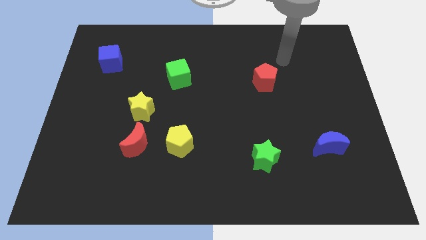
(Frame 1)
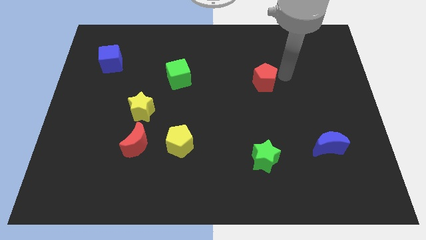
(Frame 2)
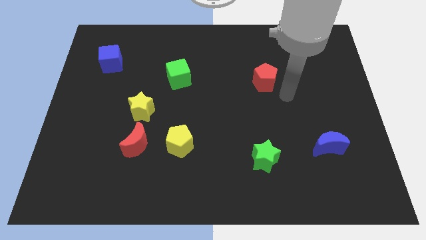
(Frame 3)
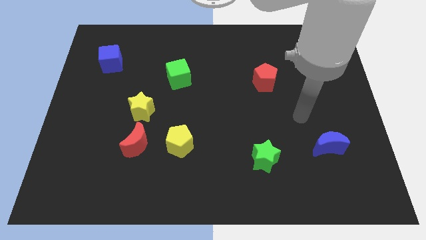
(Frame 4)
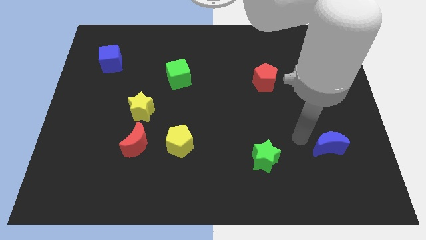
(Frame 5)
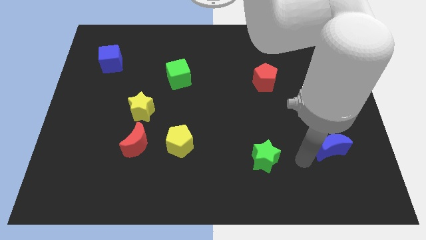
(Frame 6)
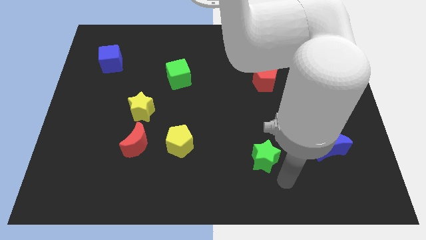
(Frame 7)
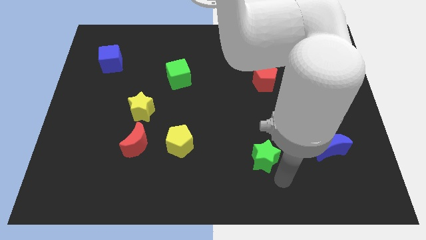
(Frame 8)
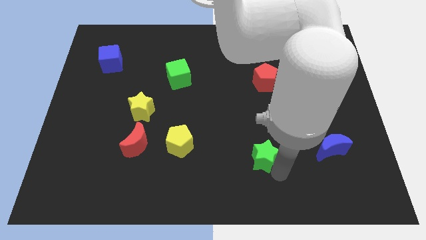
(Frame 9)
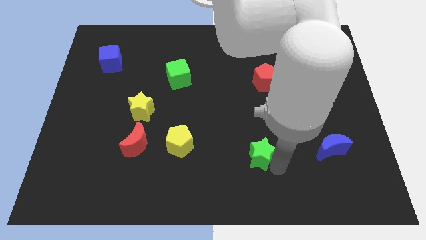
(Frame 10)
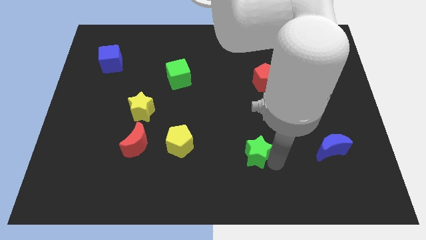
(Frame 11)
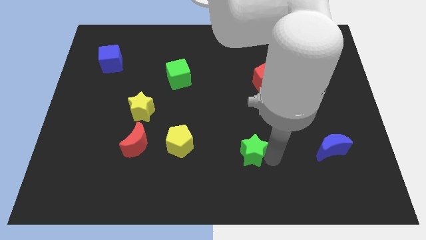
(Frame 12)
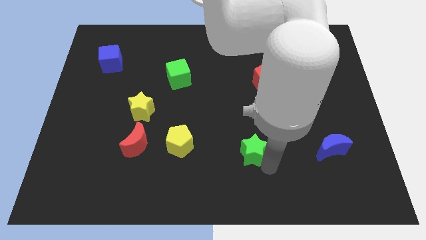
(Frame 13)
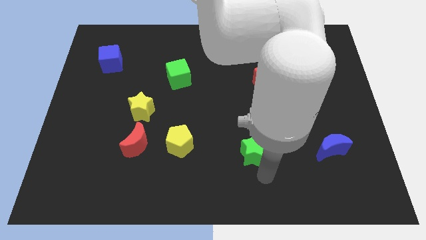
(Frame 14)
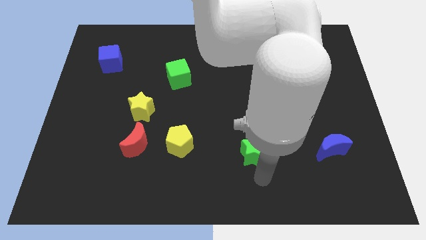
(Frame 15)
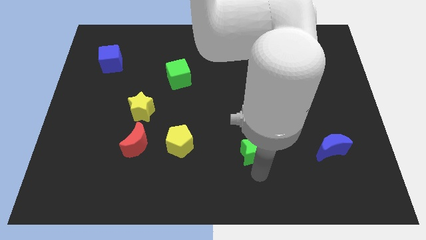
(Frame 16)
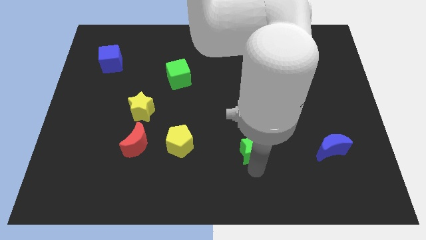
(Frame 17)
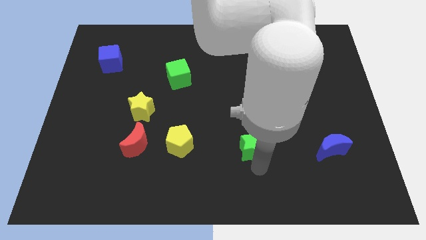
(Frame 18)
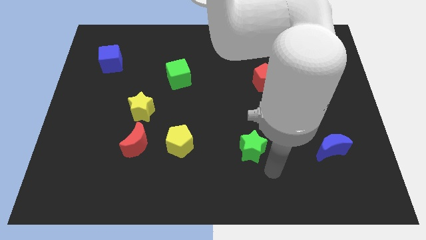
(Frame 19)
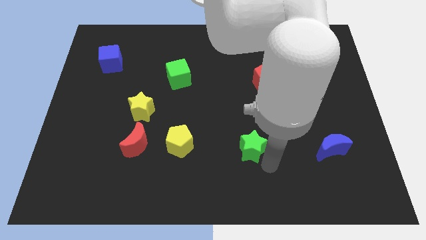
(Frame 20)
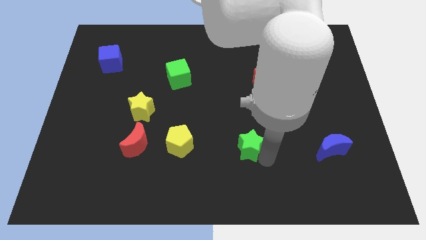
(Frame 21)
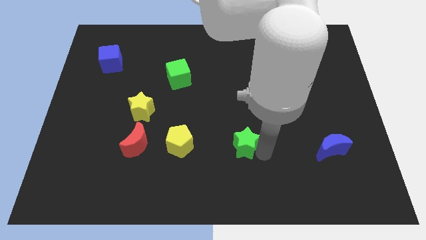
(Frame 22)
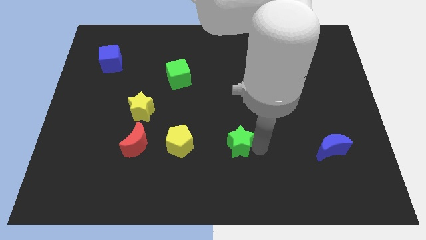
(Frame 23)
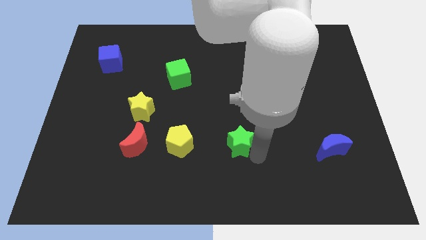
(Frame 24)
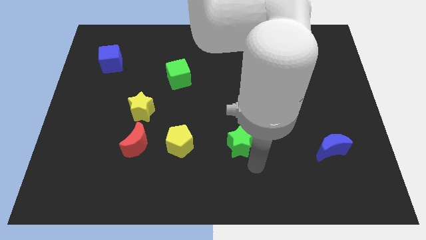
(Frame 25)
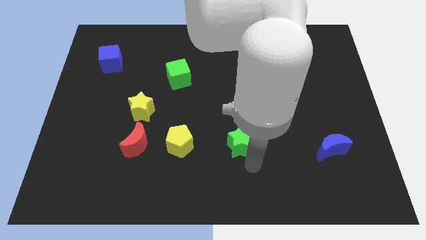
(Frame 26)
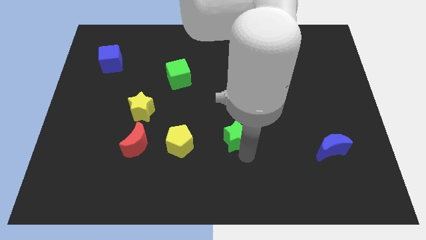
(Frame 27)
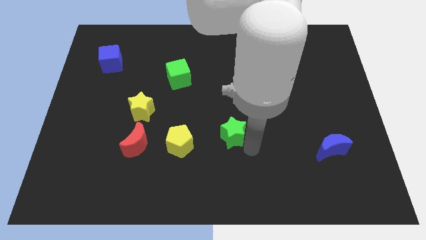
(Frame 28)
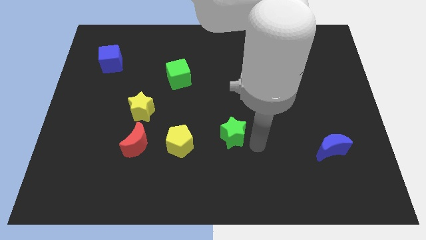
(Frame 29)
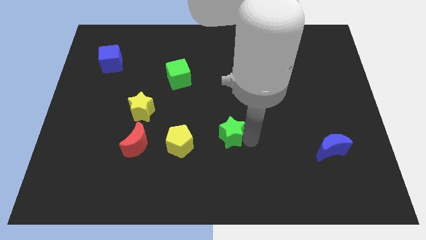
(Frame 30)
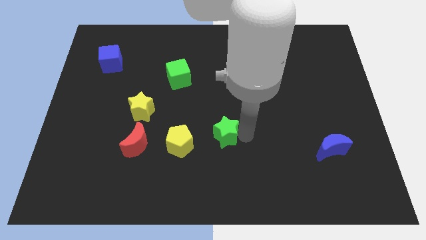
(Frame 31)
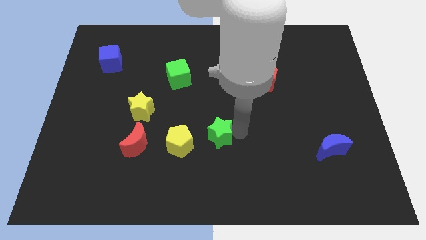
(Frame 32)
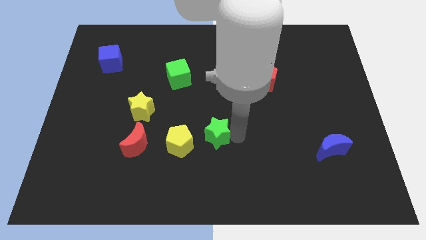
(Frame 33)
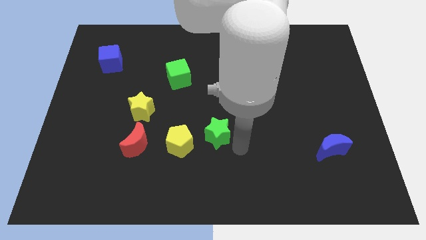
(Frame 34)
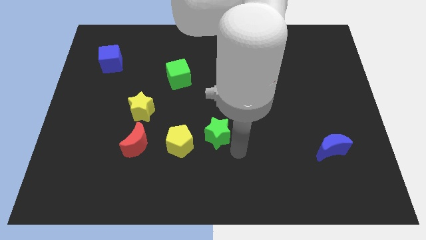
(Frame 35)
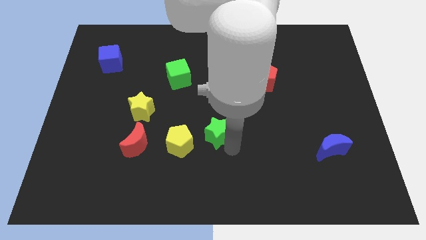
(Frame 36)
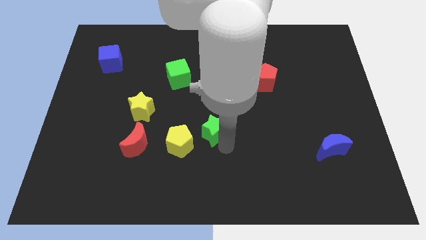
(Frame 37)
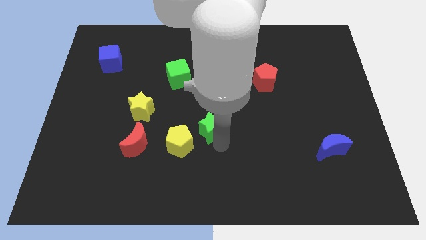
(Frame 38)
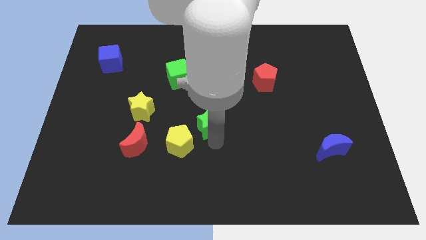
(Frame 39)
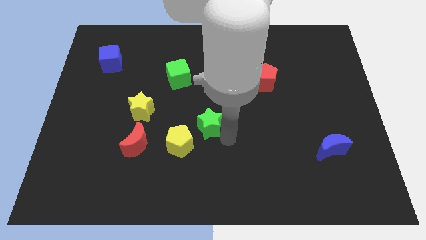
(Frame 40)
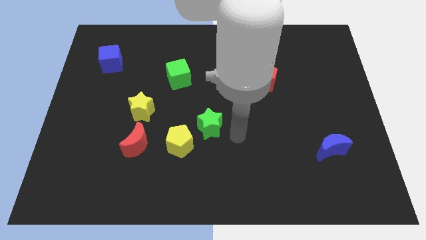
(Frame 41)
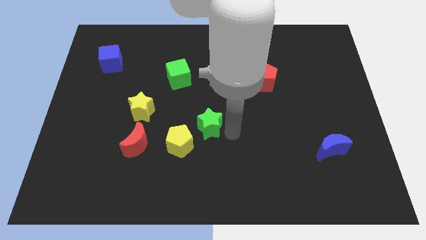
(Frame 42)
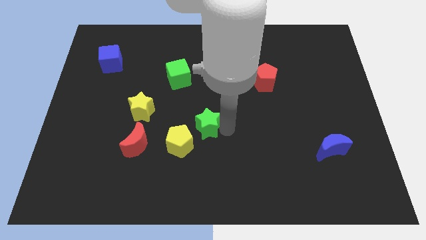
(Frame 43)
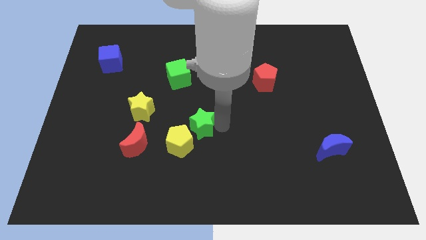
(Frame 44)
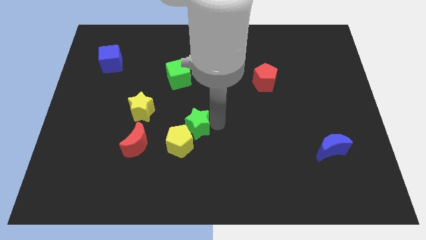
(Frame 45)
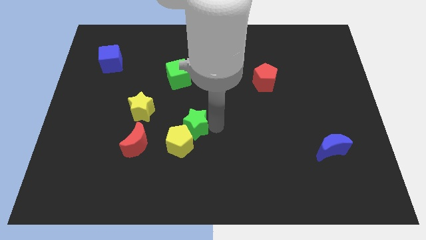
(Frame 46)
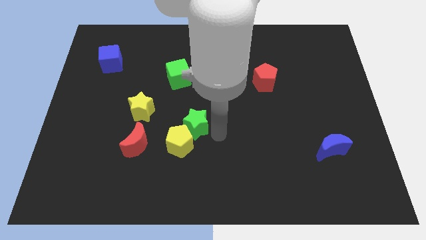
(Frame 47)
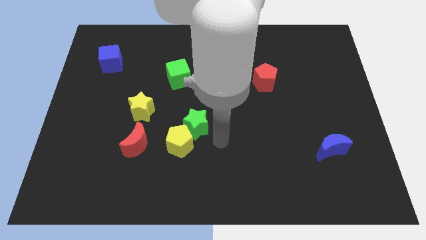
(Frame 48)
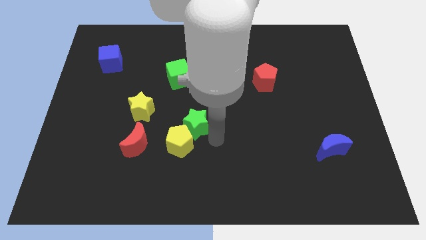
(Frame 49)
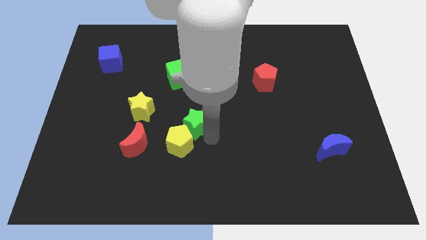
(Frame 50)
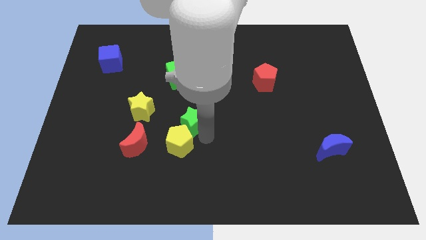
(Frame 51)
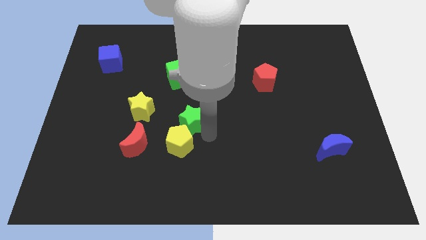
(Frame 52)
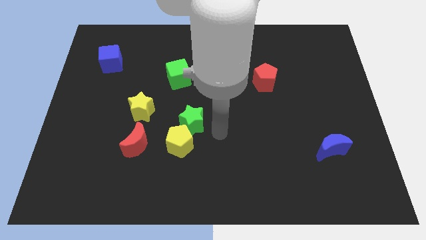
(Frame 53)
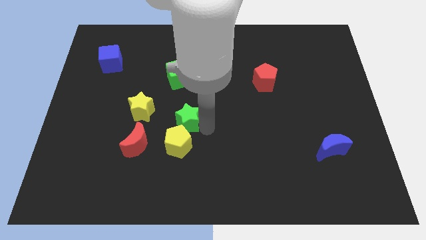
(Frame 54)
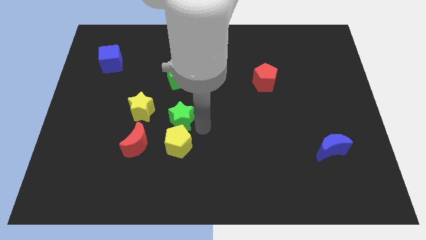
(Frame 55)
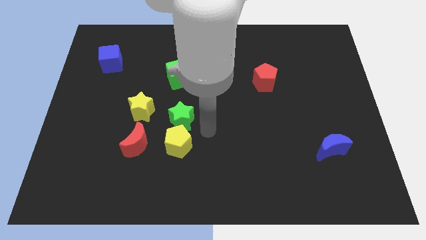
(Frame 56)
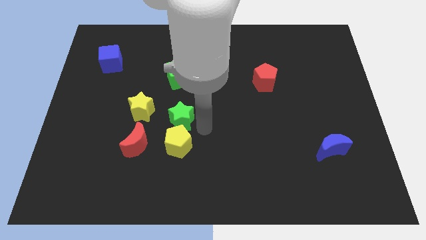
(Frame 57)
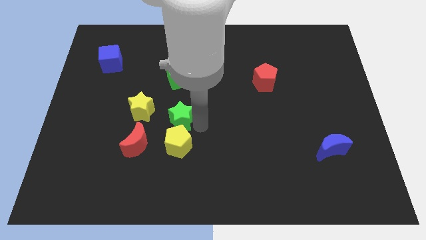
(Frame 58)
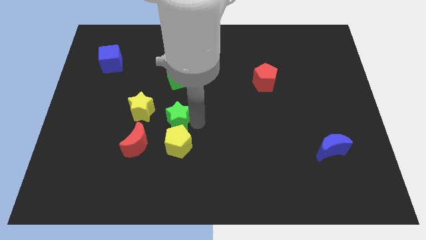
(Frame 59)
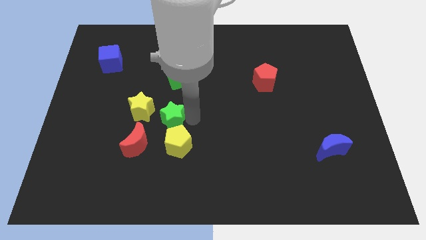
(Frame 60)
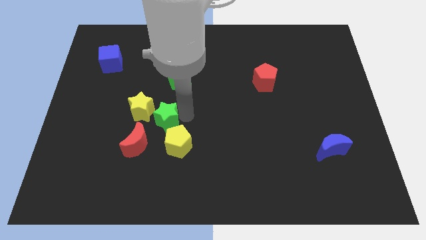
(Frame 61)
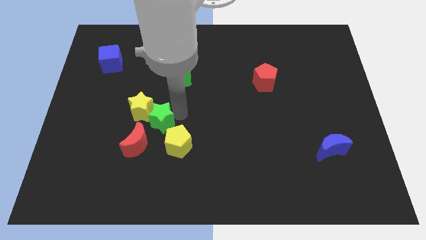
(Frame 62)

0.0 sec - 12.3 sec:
slide the green star close to the yellow star

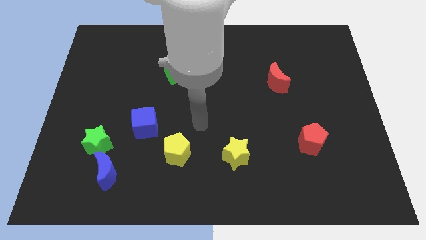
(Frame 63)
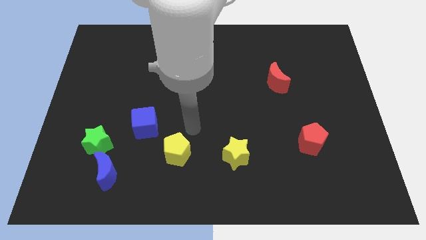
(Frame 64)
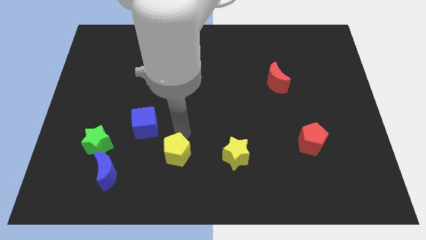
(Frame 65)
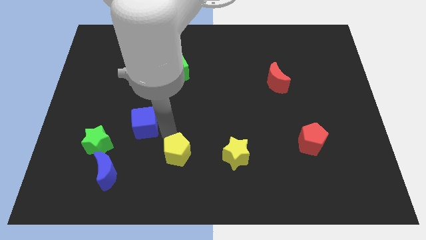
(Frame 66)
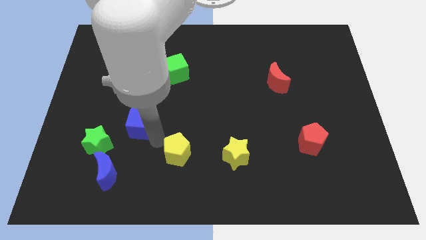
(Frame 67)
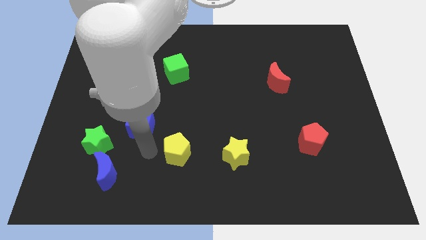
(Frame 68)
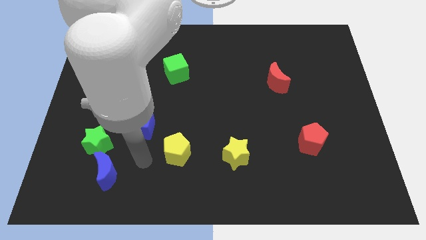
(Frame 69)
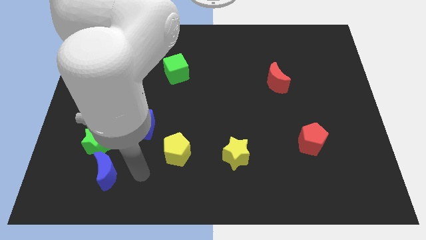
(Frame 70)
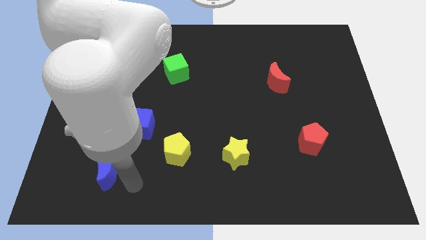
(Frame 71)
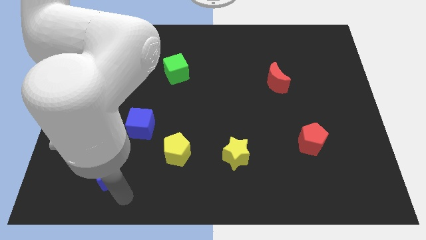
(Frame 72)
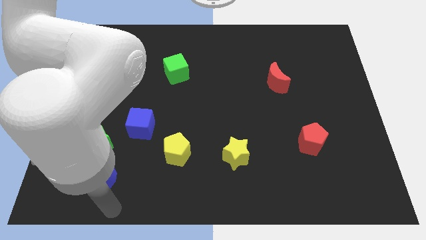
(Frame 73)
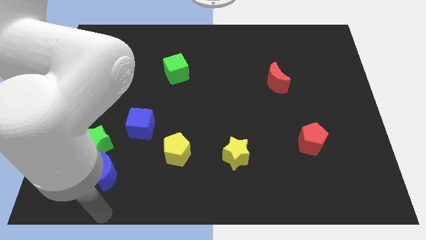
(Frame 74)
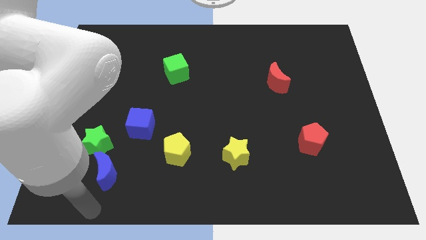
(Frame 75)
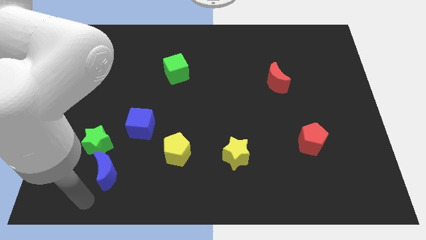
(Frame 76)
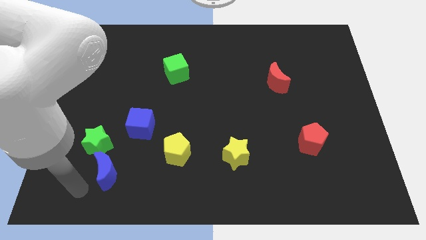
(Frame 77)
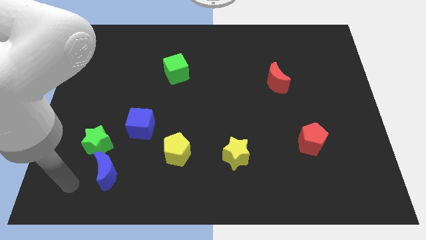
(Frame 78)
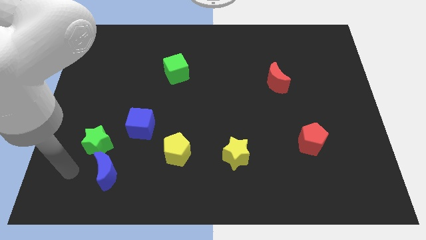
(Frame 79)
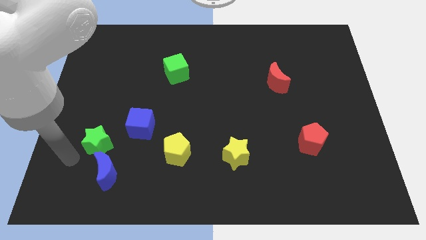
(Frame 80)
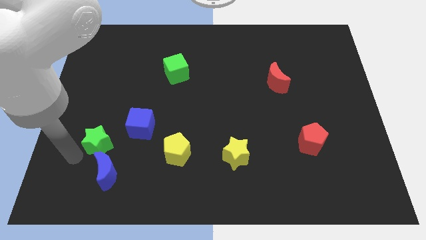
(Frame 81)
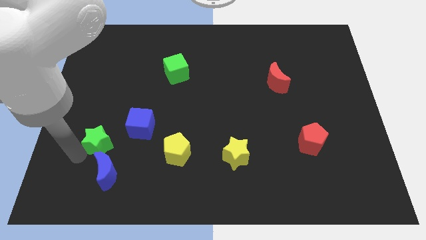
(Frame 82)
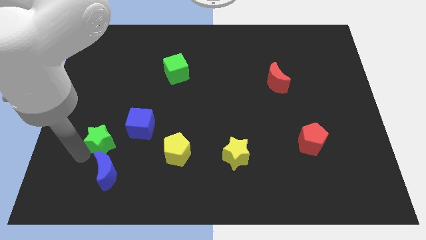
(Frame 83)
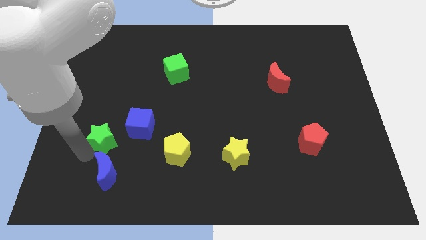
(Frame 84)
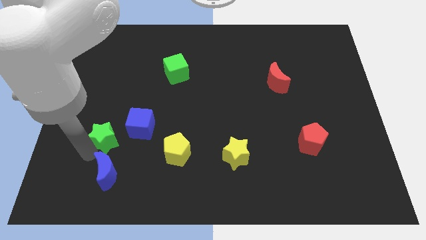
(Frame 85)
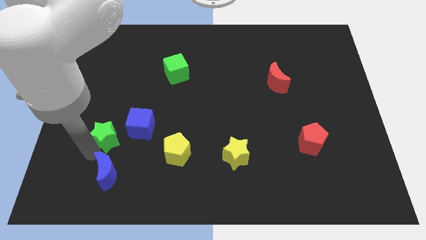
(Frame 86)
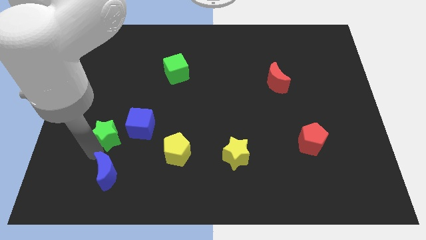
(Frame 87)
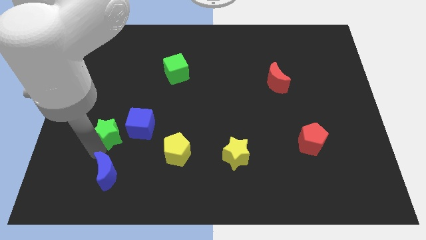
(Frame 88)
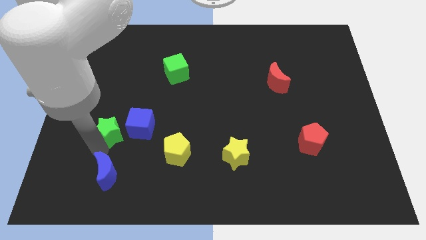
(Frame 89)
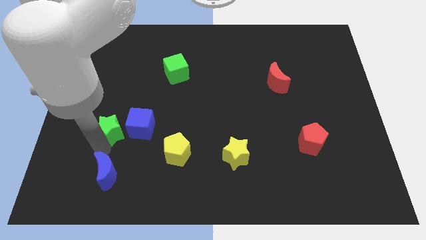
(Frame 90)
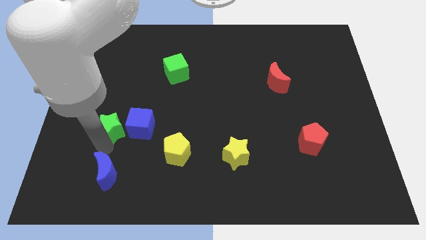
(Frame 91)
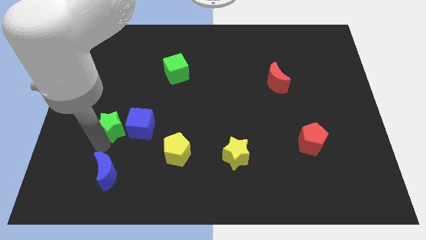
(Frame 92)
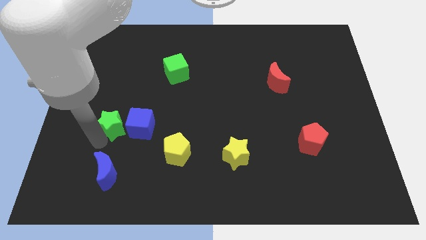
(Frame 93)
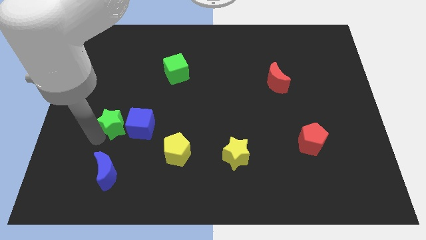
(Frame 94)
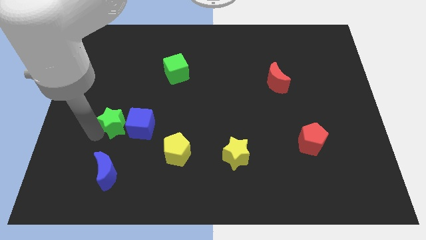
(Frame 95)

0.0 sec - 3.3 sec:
move the green star to the blue cube
